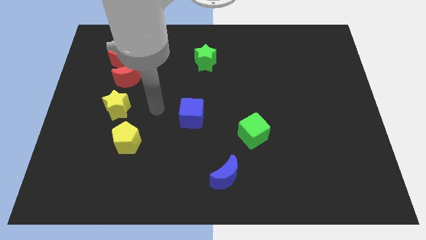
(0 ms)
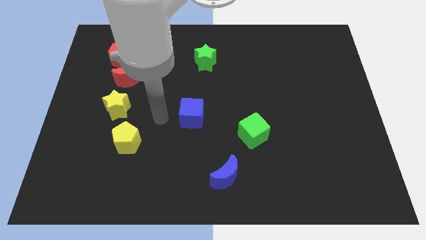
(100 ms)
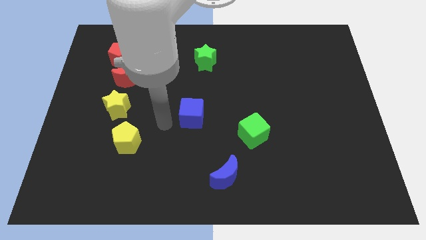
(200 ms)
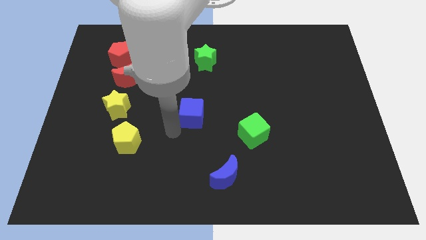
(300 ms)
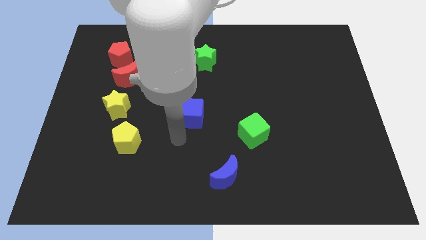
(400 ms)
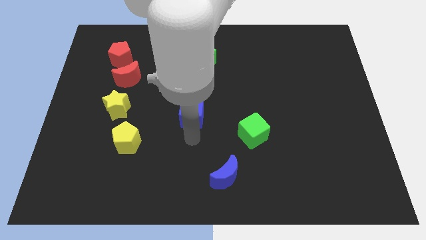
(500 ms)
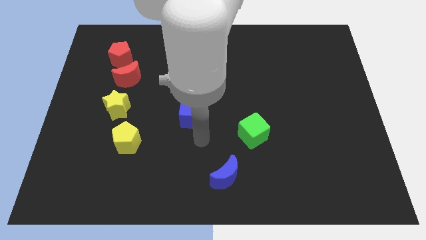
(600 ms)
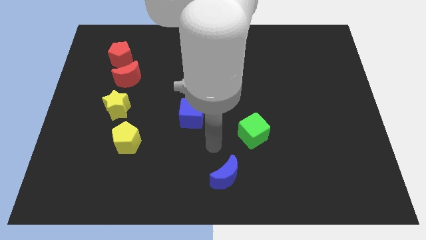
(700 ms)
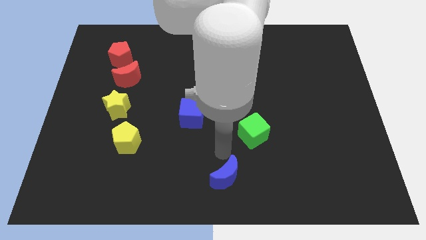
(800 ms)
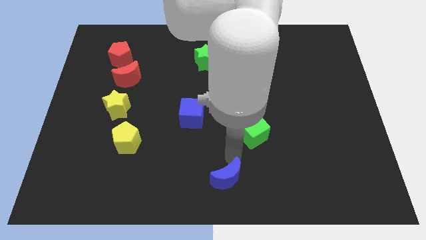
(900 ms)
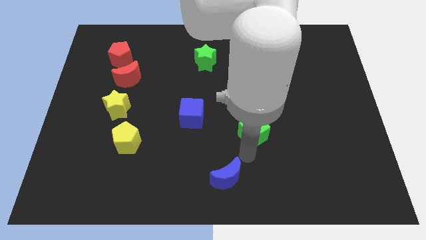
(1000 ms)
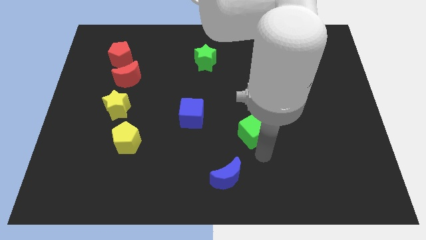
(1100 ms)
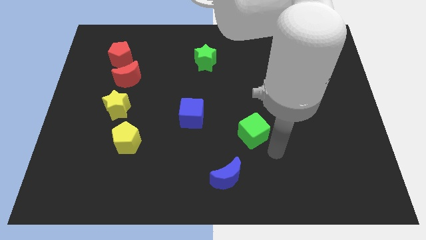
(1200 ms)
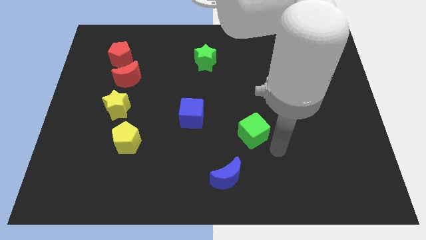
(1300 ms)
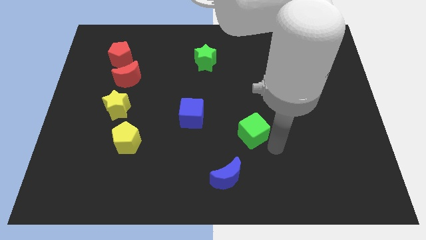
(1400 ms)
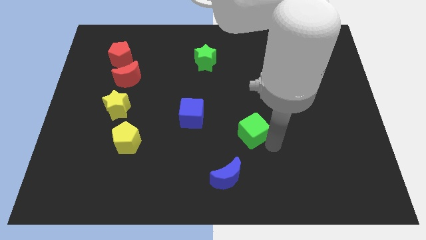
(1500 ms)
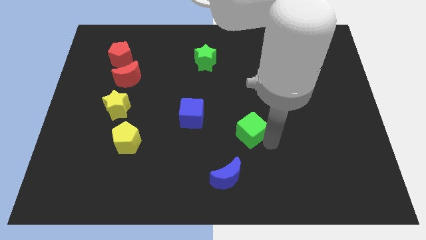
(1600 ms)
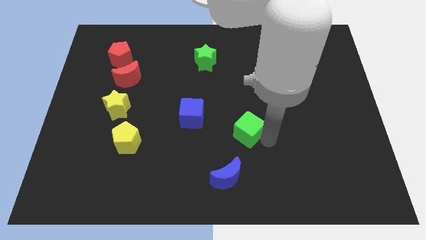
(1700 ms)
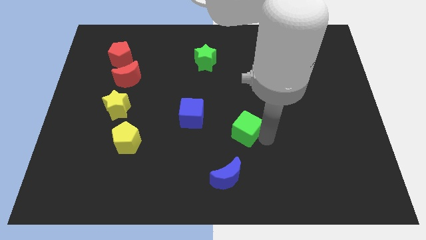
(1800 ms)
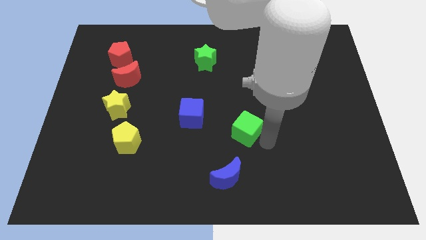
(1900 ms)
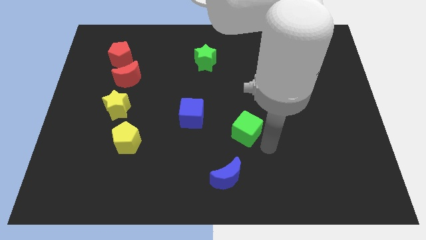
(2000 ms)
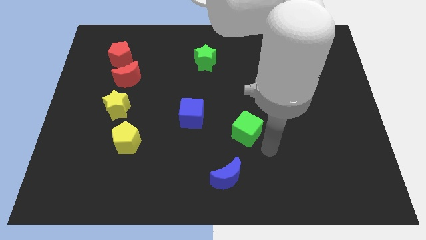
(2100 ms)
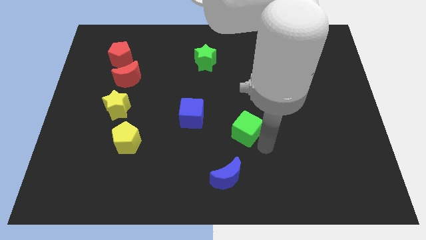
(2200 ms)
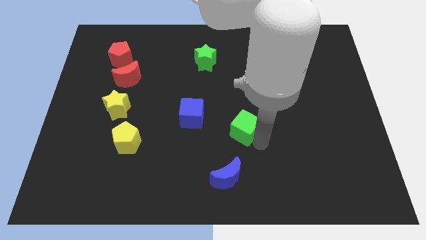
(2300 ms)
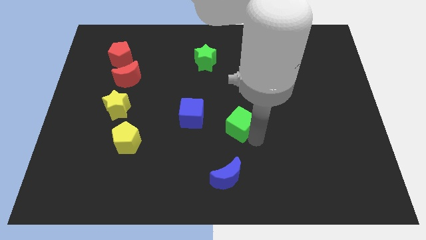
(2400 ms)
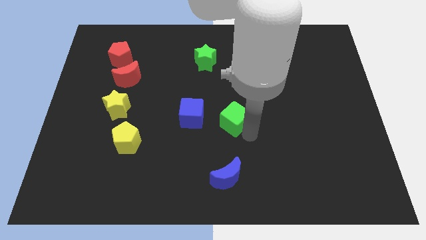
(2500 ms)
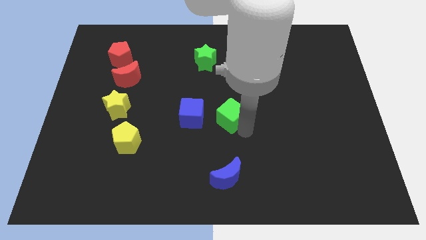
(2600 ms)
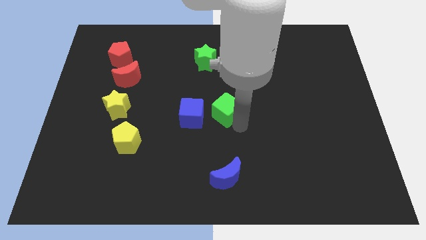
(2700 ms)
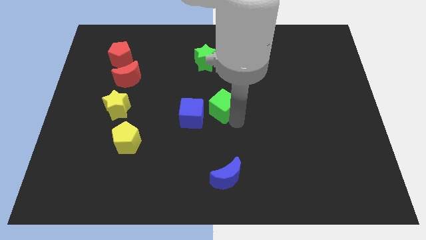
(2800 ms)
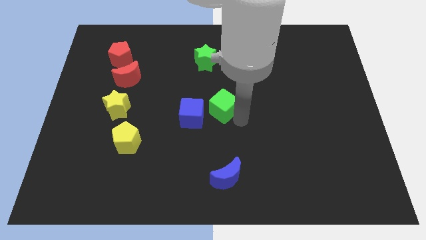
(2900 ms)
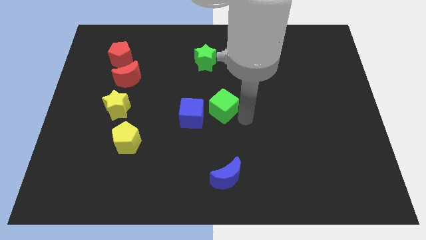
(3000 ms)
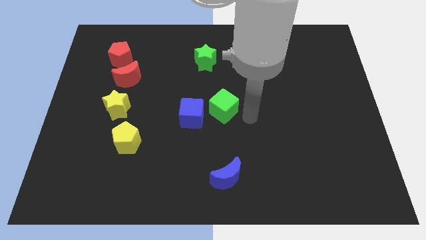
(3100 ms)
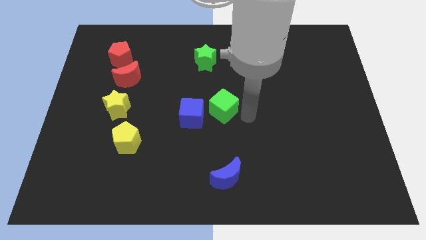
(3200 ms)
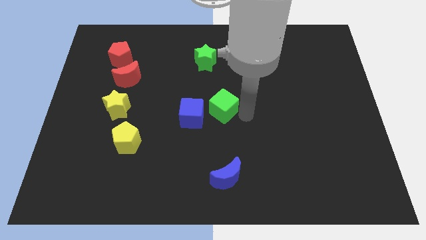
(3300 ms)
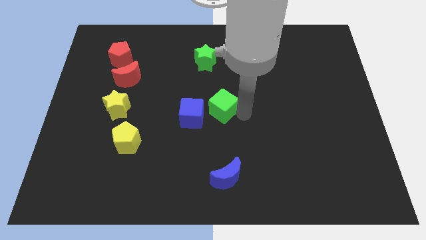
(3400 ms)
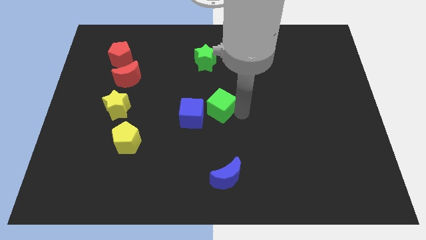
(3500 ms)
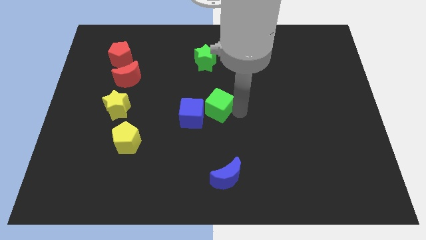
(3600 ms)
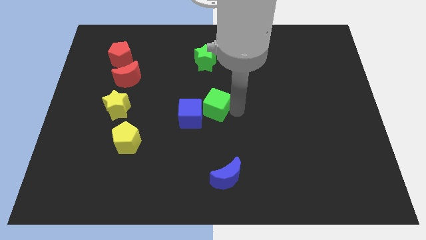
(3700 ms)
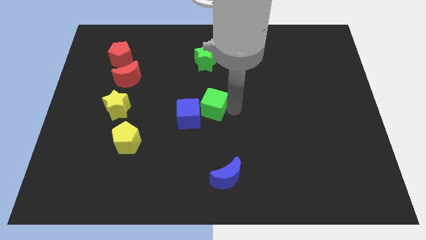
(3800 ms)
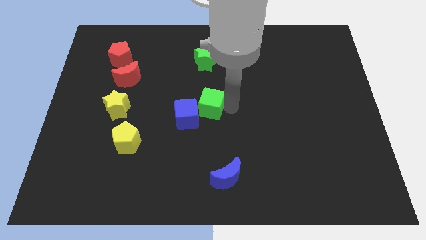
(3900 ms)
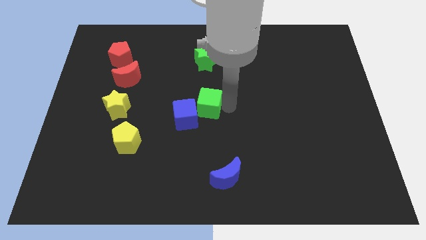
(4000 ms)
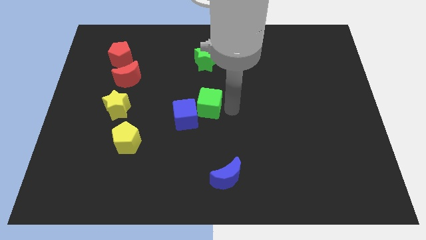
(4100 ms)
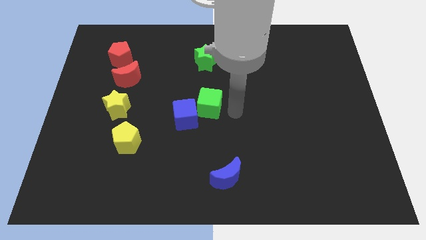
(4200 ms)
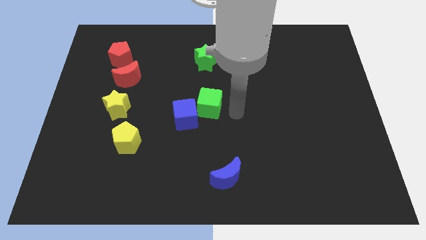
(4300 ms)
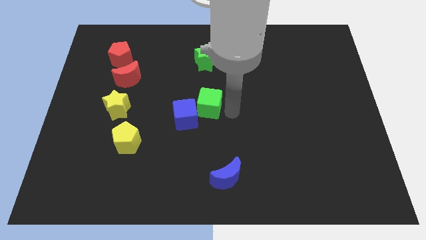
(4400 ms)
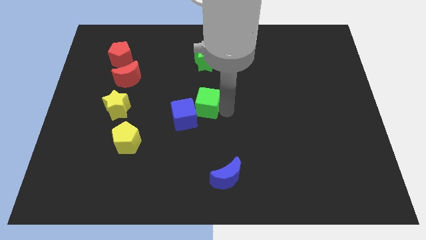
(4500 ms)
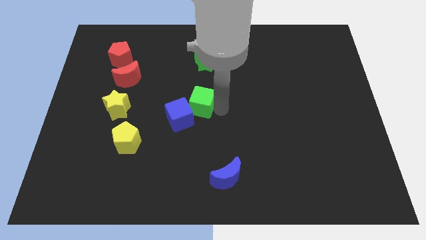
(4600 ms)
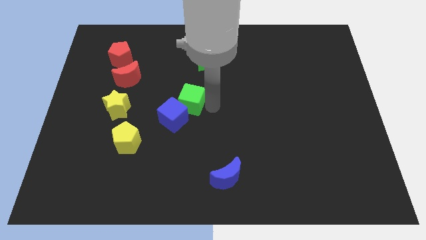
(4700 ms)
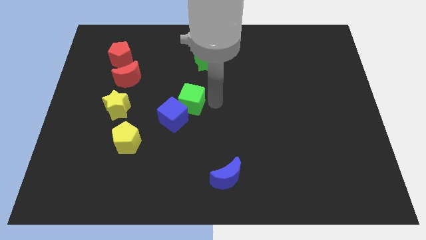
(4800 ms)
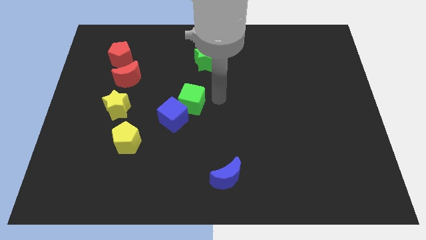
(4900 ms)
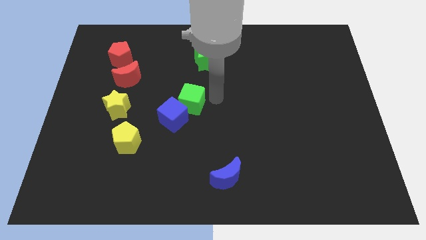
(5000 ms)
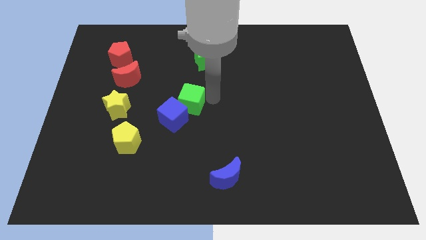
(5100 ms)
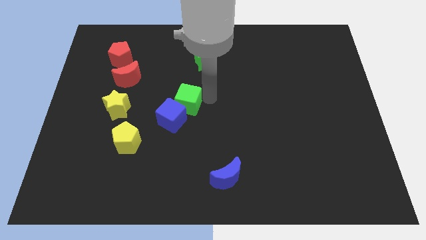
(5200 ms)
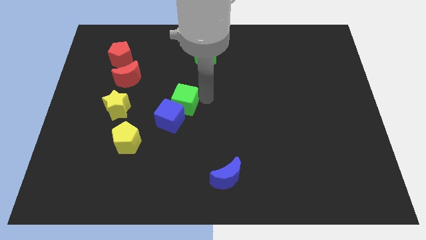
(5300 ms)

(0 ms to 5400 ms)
put the green cube to the right side of the yellow star

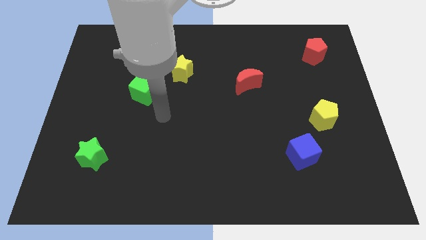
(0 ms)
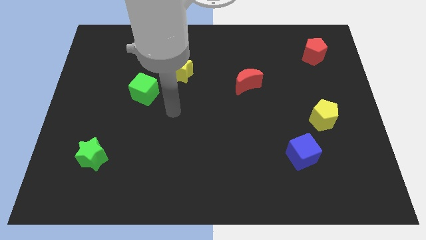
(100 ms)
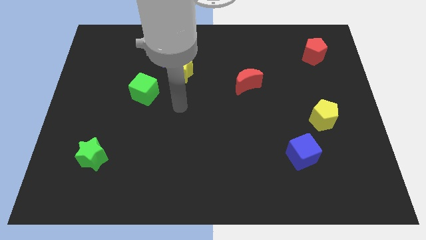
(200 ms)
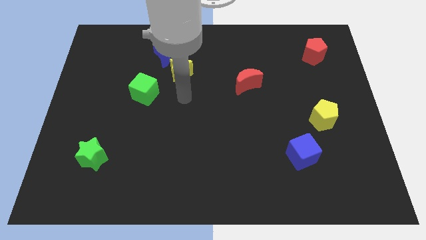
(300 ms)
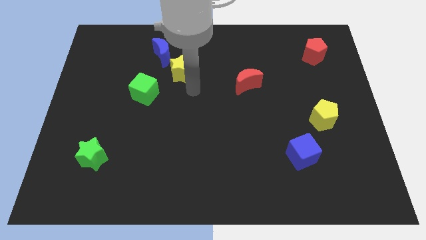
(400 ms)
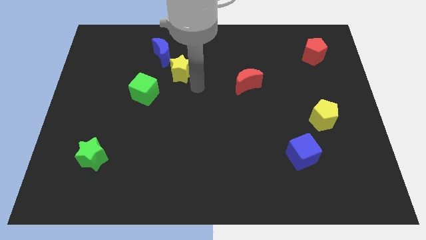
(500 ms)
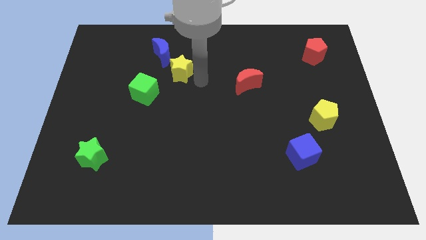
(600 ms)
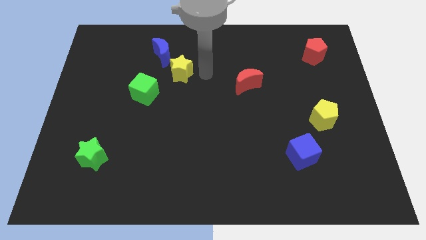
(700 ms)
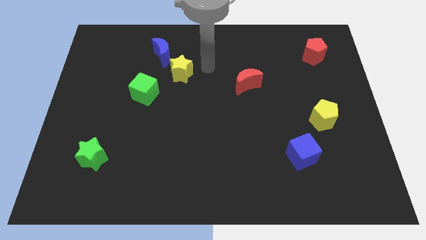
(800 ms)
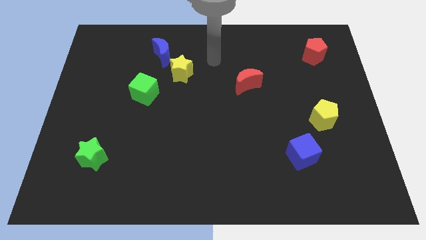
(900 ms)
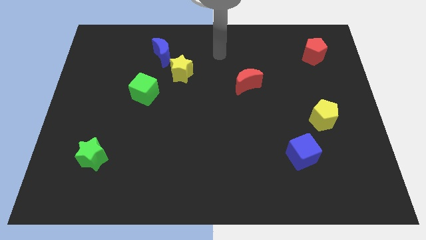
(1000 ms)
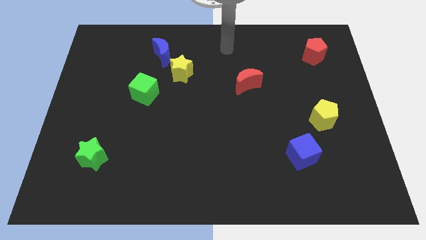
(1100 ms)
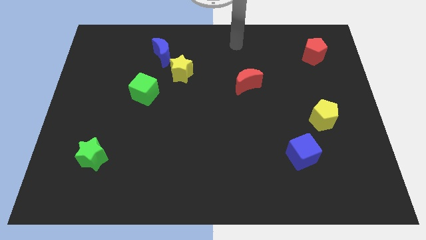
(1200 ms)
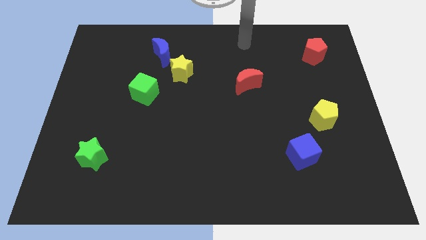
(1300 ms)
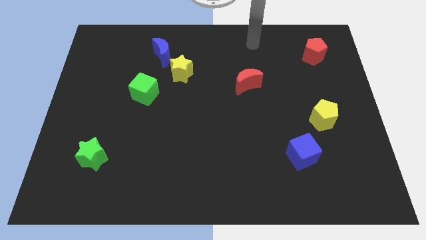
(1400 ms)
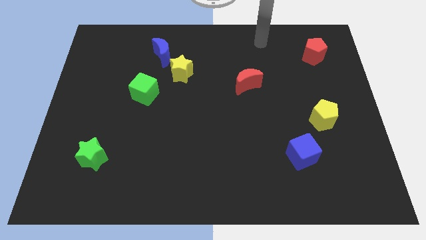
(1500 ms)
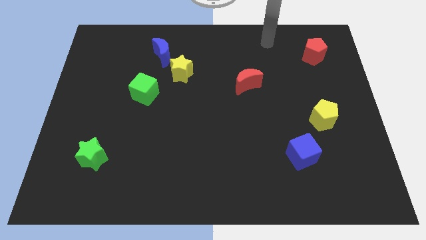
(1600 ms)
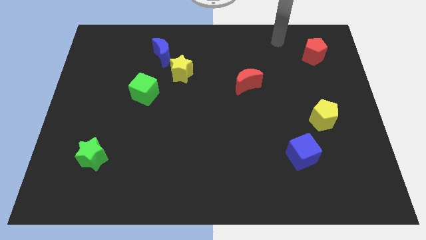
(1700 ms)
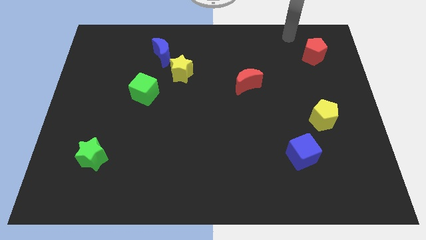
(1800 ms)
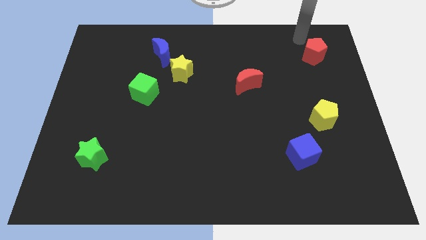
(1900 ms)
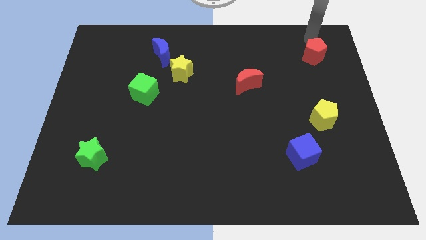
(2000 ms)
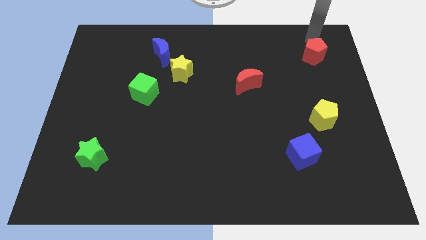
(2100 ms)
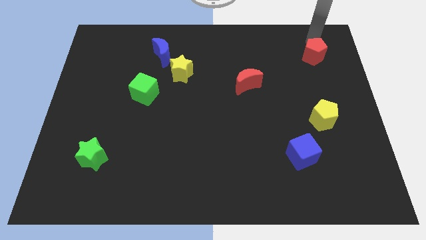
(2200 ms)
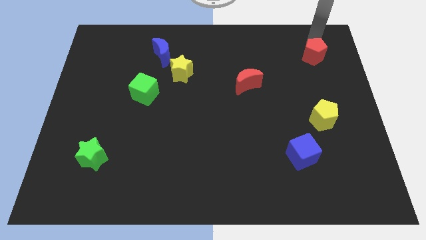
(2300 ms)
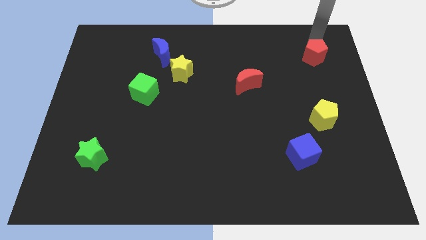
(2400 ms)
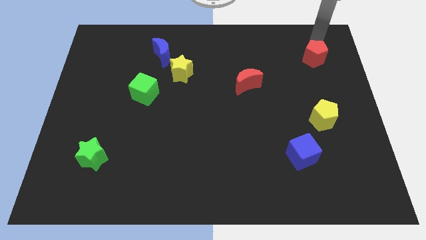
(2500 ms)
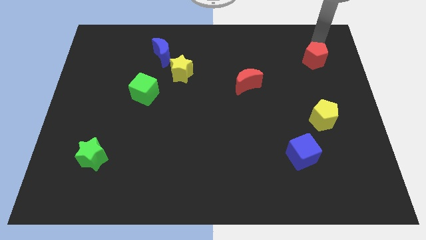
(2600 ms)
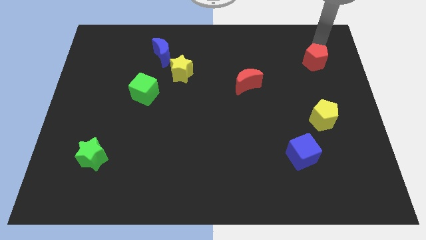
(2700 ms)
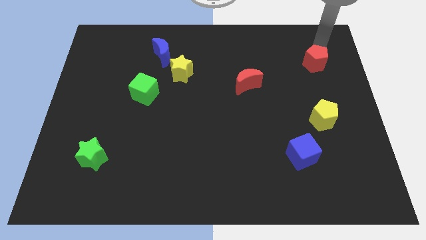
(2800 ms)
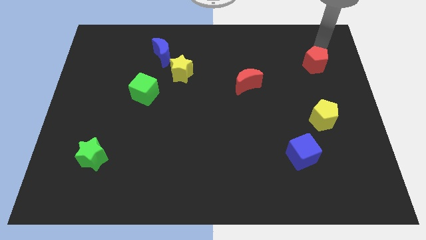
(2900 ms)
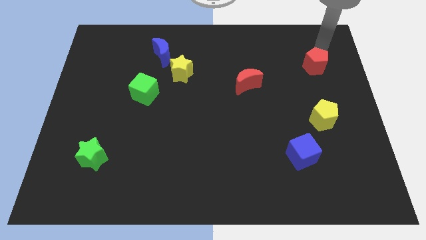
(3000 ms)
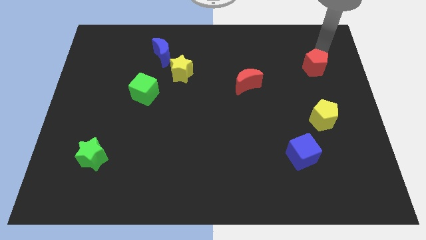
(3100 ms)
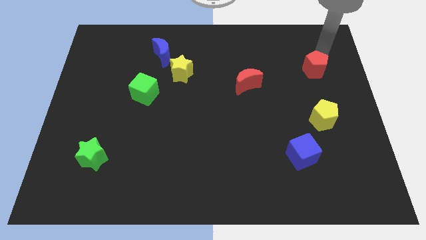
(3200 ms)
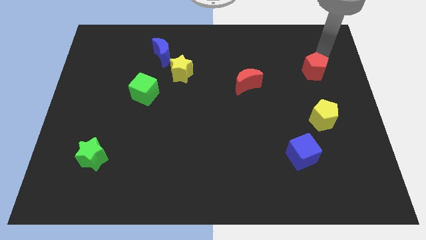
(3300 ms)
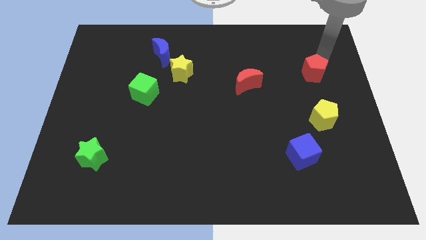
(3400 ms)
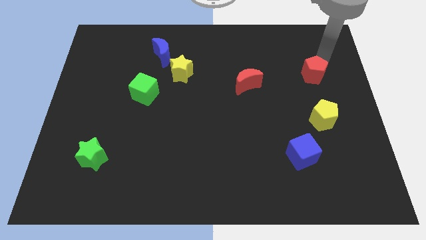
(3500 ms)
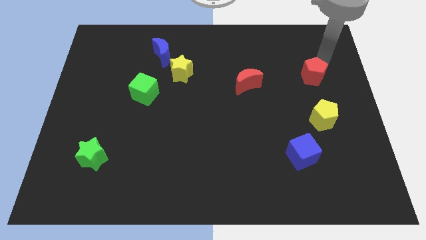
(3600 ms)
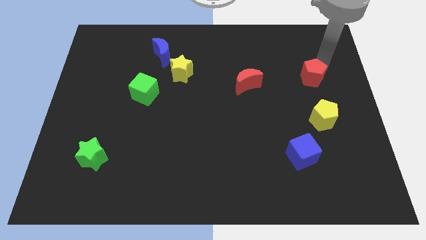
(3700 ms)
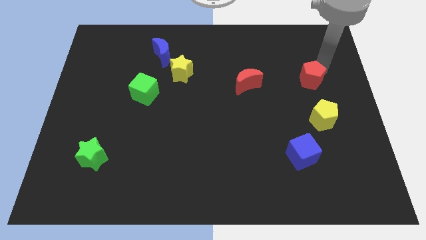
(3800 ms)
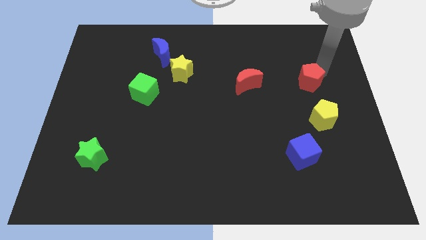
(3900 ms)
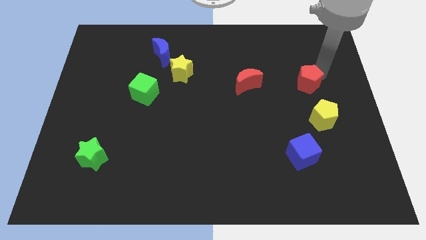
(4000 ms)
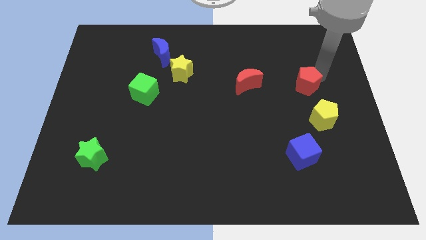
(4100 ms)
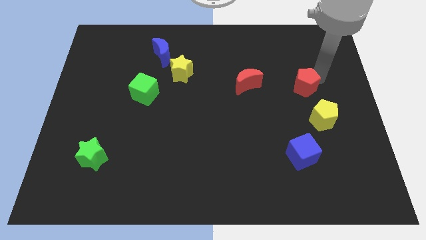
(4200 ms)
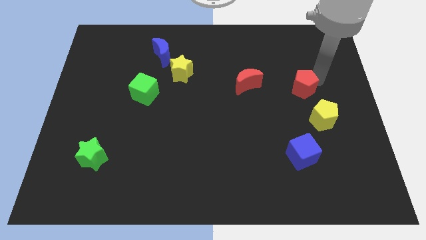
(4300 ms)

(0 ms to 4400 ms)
slide the red pentagon diagonally up and to the left of the yellow pentagon
